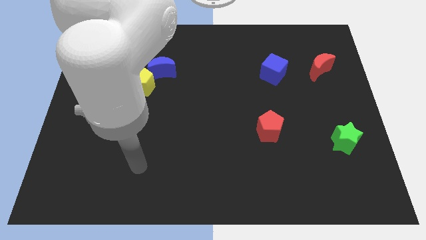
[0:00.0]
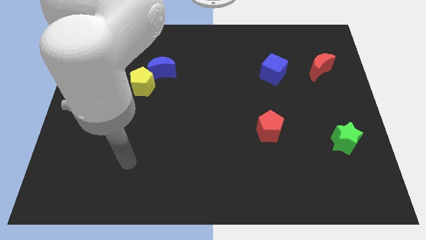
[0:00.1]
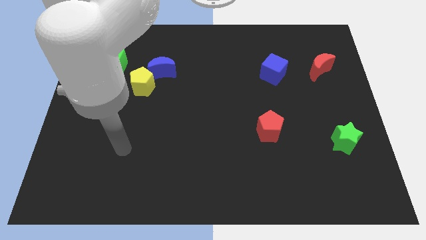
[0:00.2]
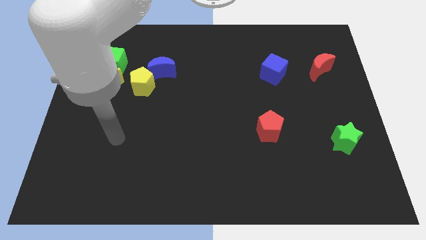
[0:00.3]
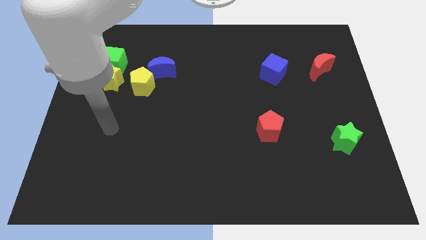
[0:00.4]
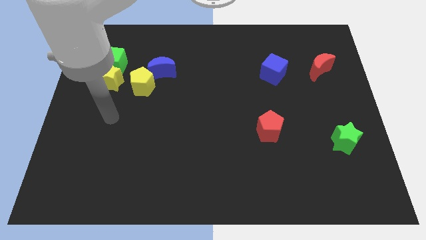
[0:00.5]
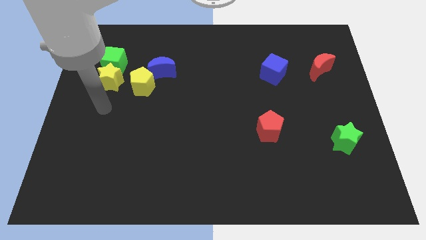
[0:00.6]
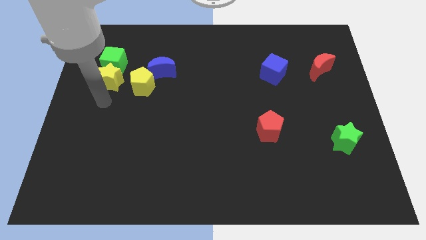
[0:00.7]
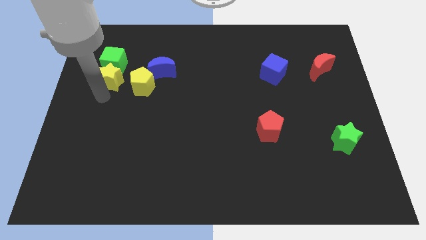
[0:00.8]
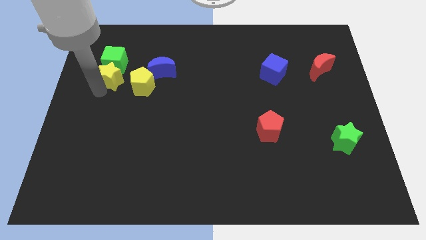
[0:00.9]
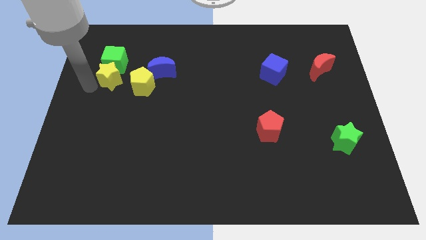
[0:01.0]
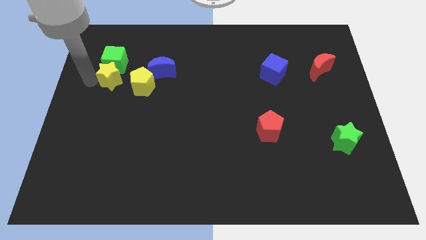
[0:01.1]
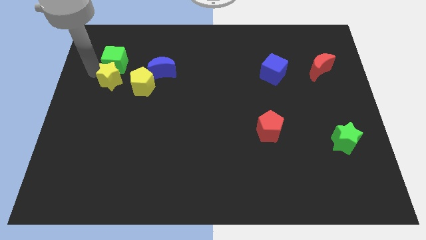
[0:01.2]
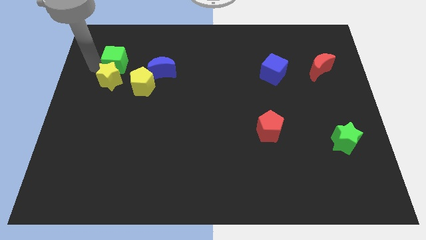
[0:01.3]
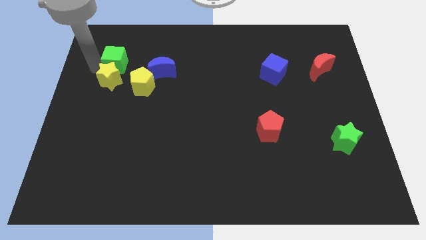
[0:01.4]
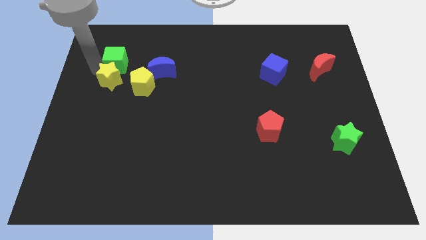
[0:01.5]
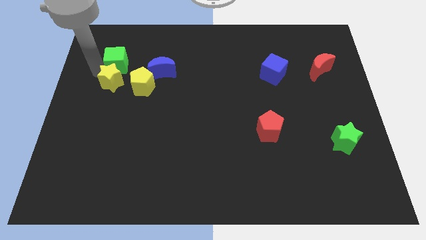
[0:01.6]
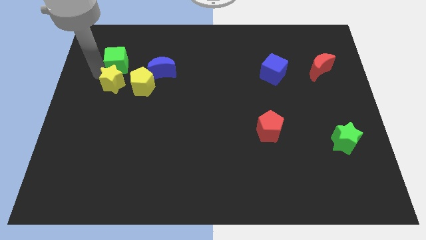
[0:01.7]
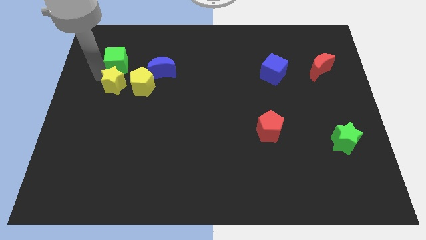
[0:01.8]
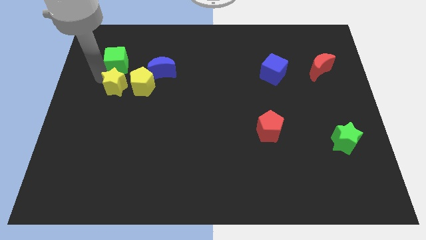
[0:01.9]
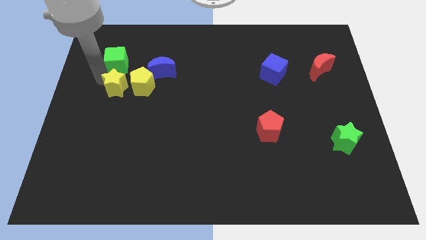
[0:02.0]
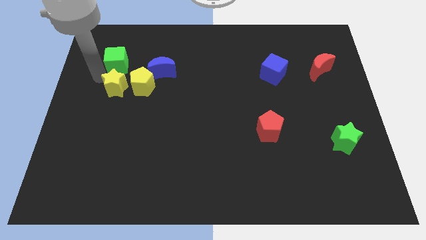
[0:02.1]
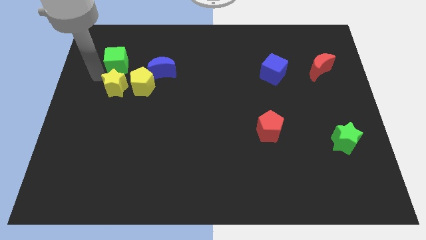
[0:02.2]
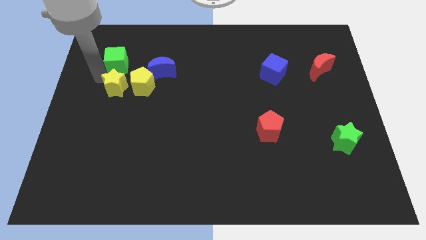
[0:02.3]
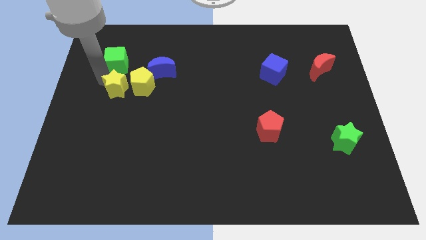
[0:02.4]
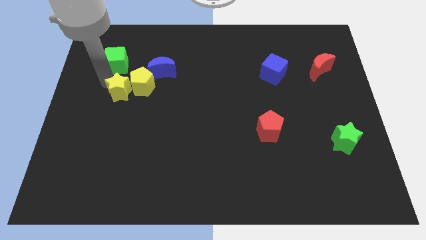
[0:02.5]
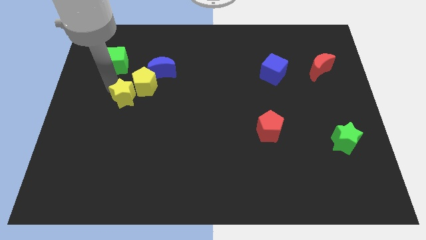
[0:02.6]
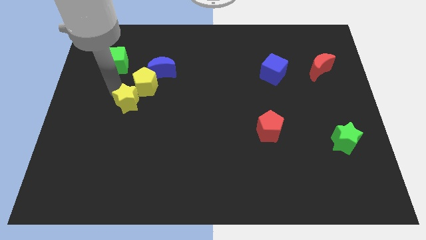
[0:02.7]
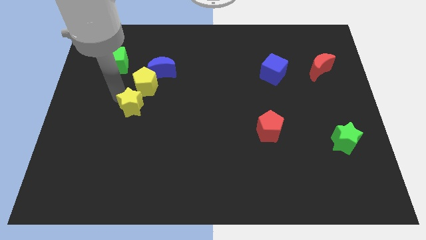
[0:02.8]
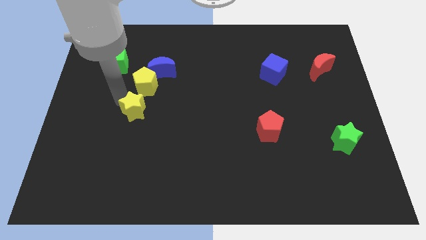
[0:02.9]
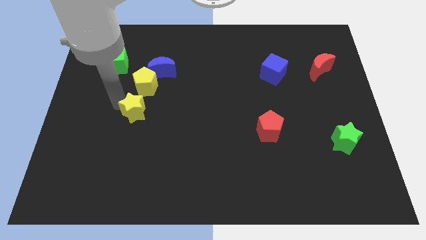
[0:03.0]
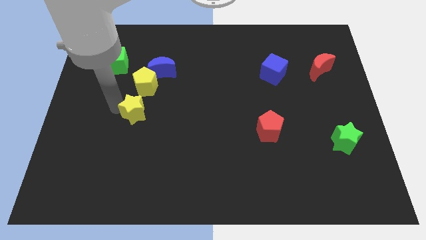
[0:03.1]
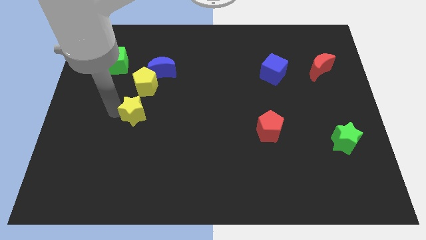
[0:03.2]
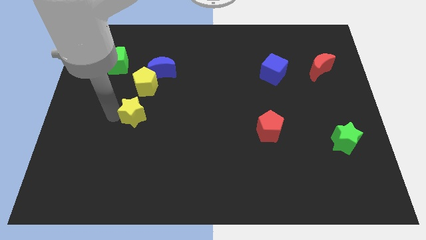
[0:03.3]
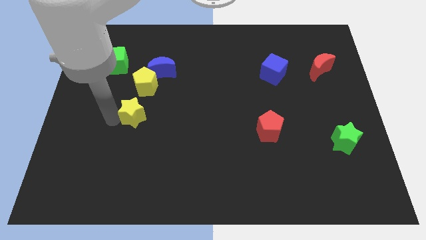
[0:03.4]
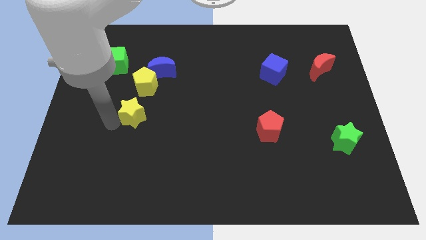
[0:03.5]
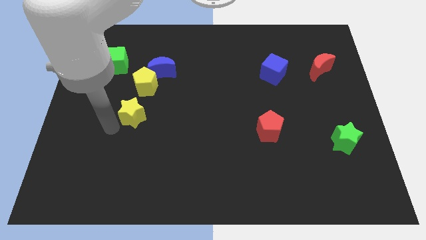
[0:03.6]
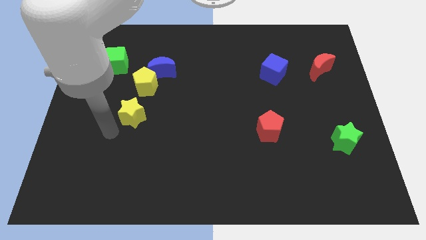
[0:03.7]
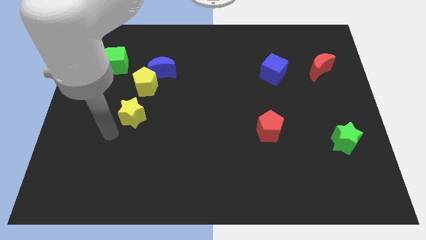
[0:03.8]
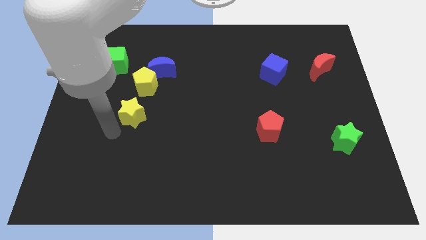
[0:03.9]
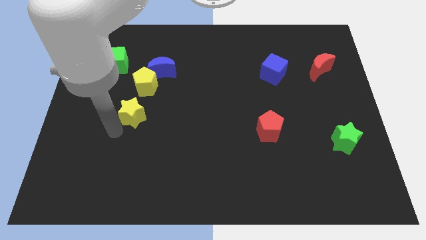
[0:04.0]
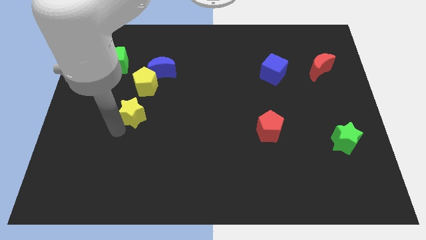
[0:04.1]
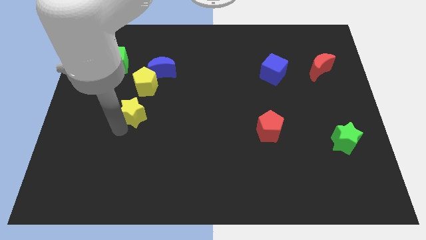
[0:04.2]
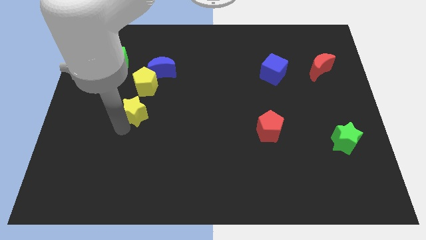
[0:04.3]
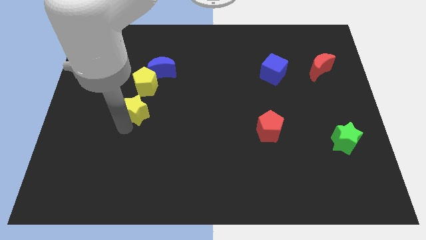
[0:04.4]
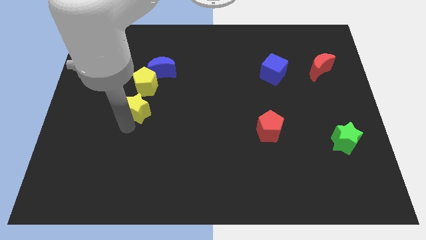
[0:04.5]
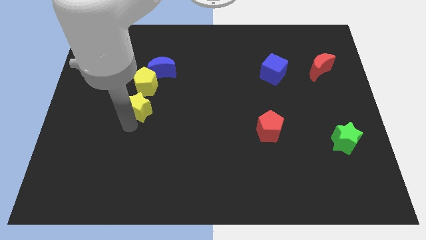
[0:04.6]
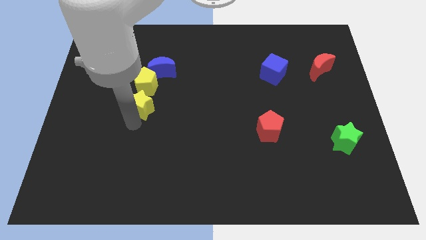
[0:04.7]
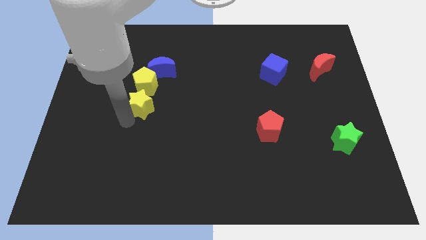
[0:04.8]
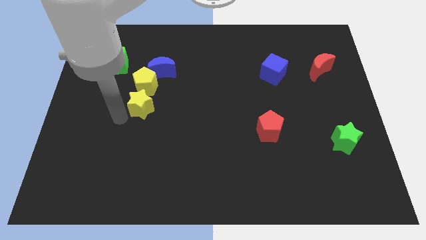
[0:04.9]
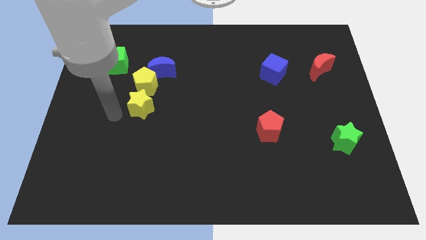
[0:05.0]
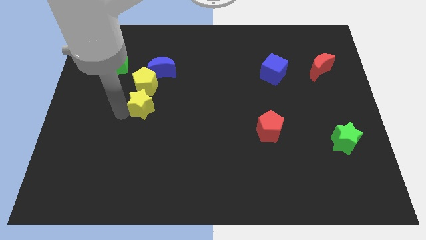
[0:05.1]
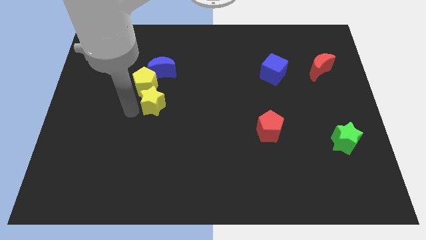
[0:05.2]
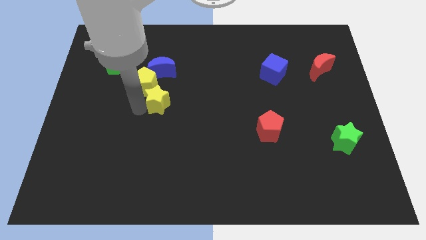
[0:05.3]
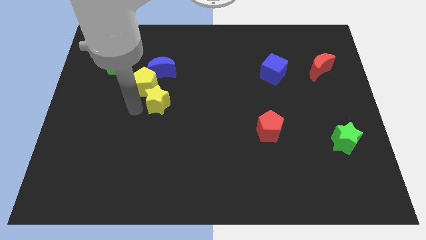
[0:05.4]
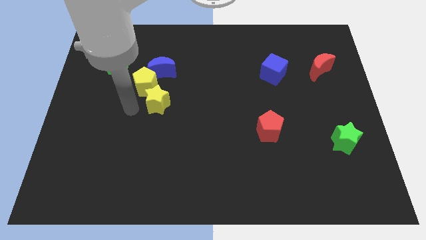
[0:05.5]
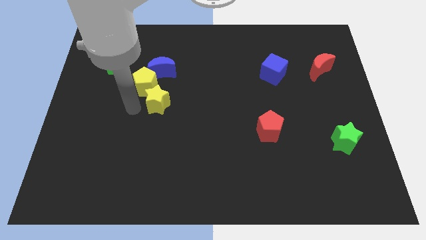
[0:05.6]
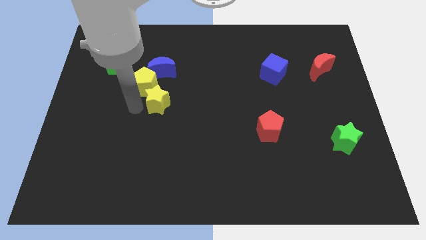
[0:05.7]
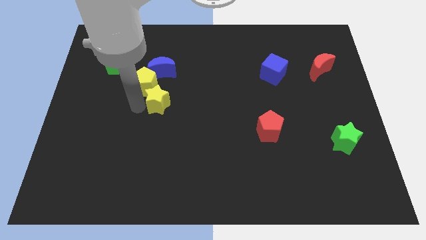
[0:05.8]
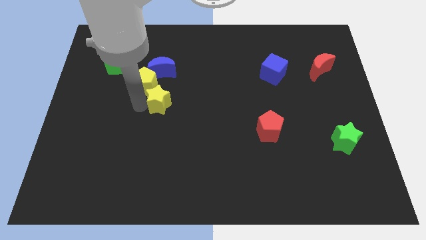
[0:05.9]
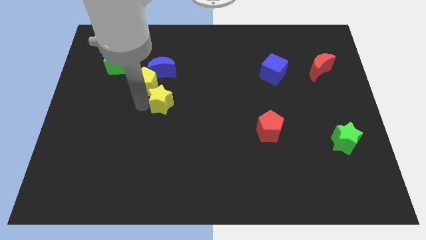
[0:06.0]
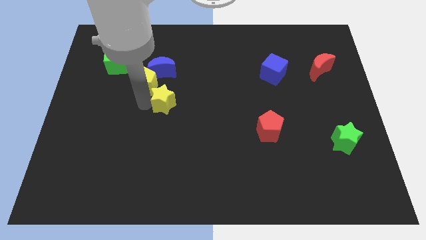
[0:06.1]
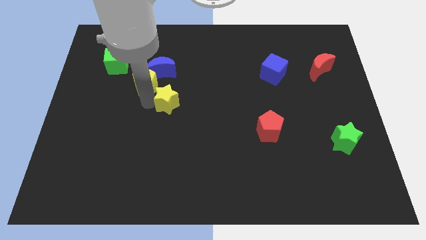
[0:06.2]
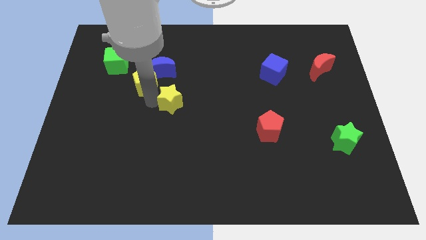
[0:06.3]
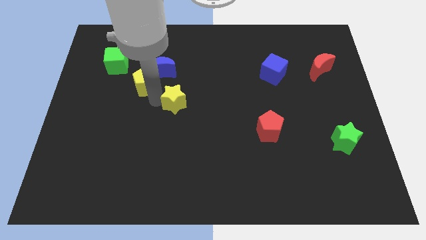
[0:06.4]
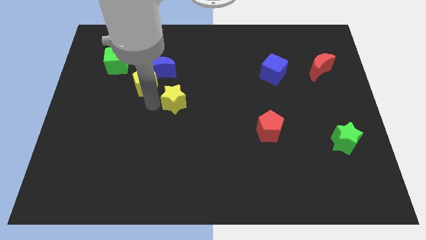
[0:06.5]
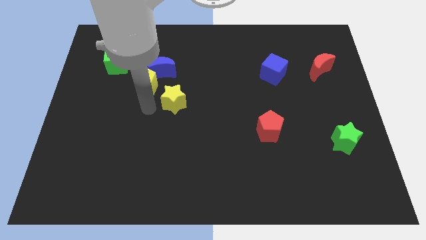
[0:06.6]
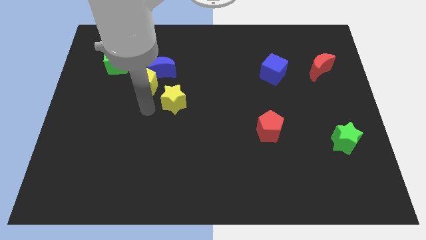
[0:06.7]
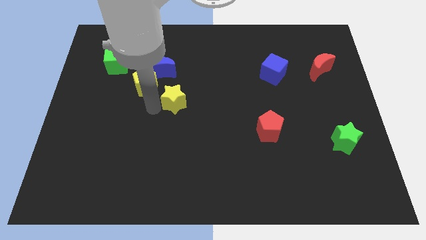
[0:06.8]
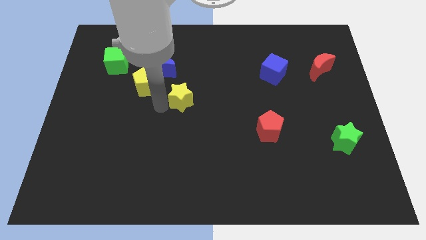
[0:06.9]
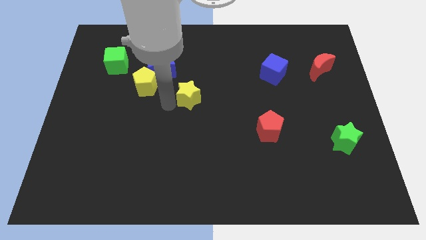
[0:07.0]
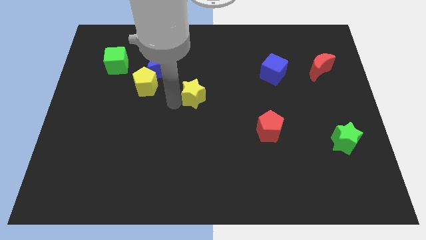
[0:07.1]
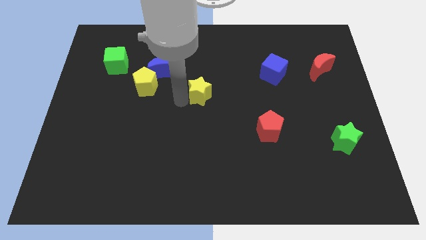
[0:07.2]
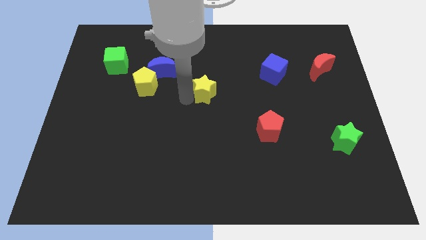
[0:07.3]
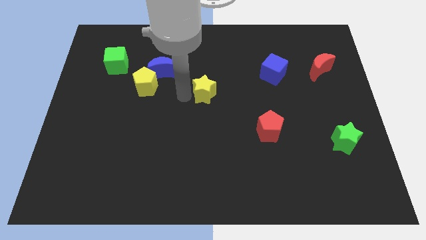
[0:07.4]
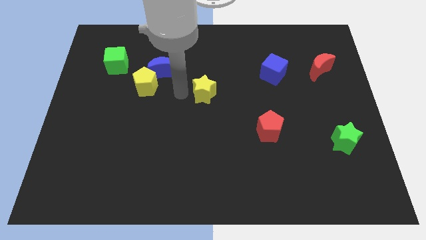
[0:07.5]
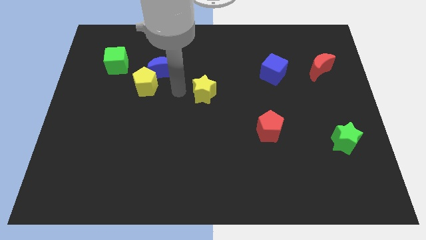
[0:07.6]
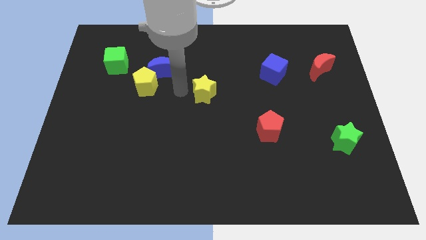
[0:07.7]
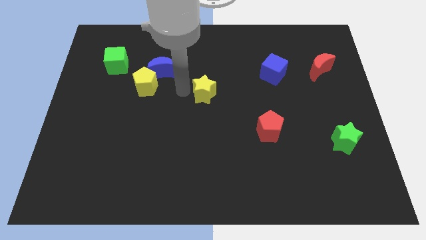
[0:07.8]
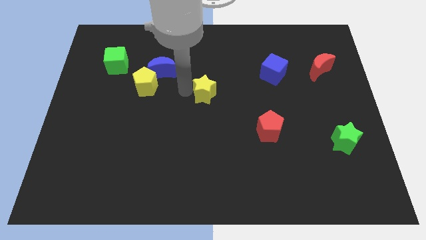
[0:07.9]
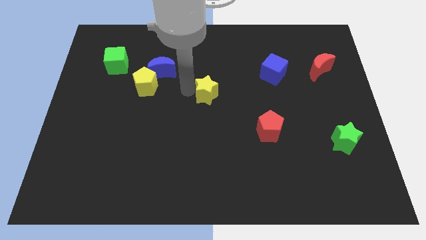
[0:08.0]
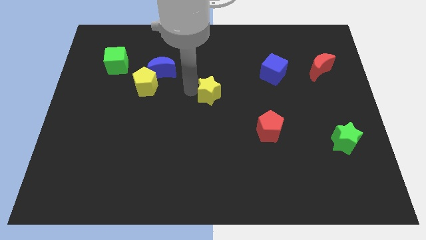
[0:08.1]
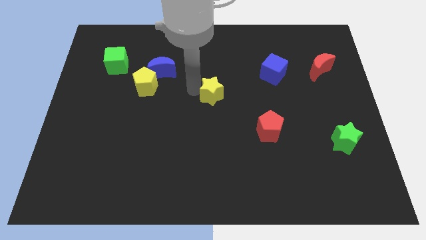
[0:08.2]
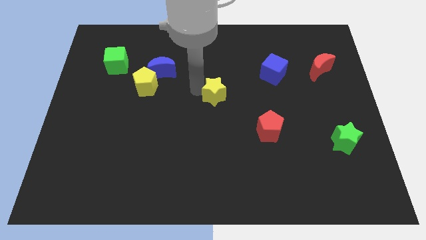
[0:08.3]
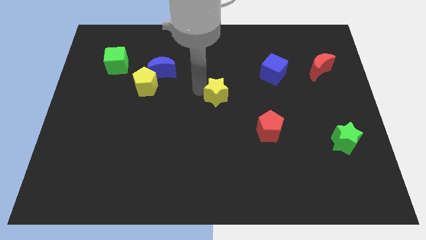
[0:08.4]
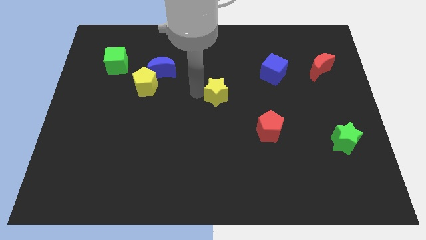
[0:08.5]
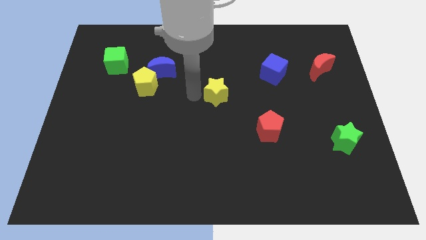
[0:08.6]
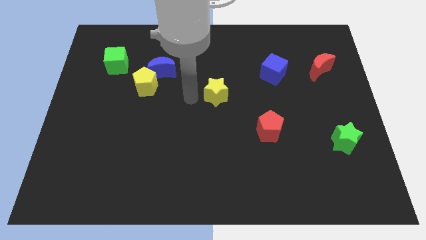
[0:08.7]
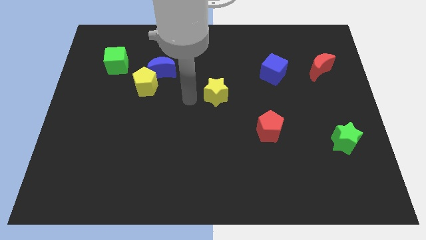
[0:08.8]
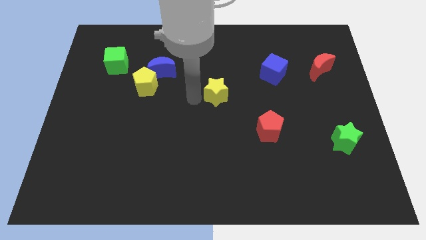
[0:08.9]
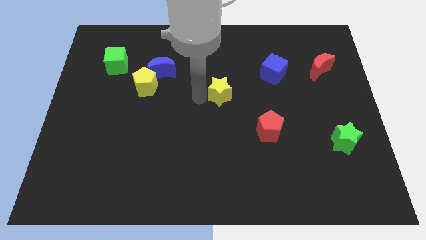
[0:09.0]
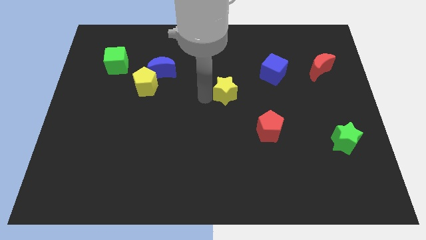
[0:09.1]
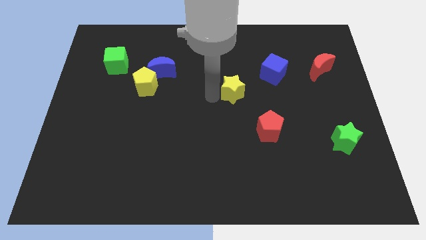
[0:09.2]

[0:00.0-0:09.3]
put the yellow star to the bottom left side of the blue cube
